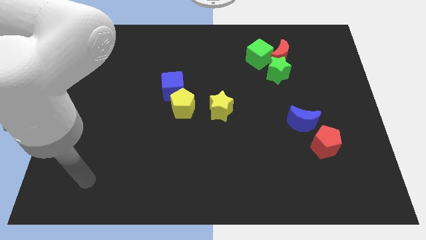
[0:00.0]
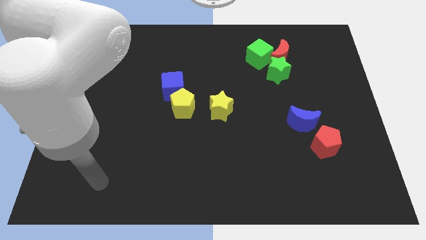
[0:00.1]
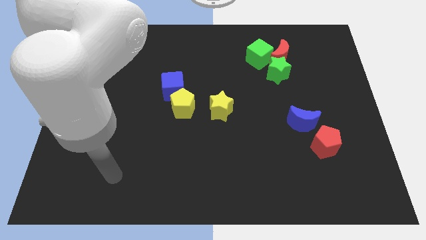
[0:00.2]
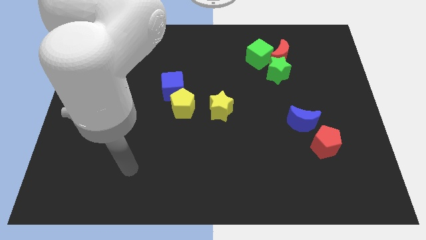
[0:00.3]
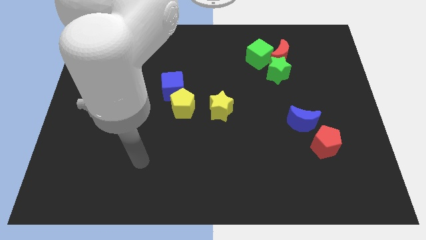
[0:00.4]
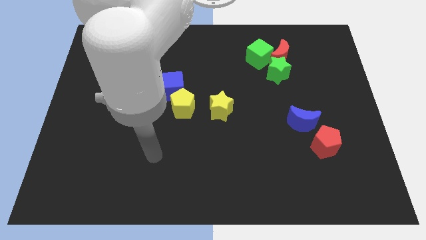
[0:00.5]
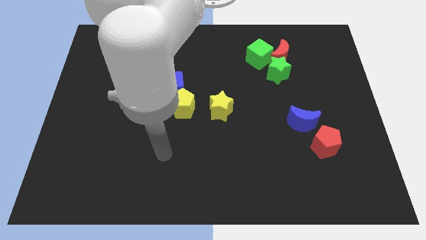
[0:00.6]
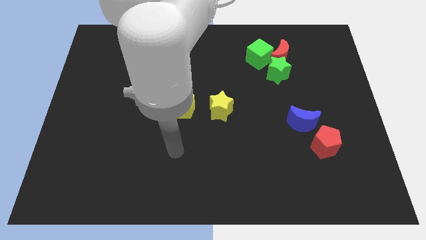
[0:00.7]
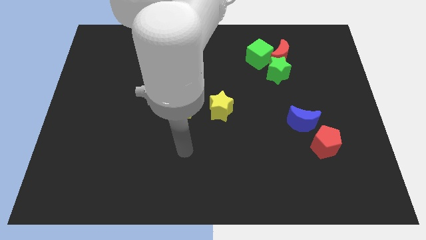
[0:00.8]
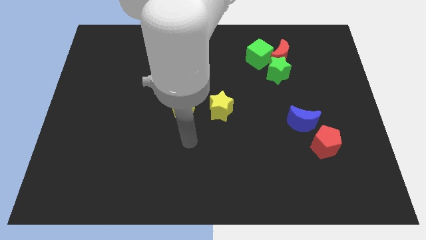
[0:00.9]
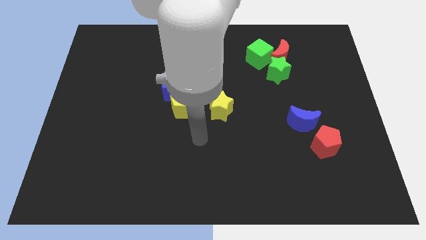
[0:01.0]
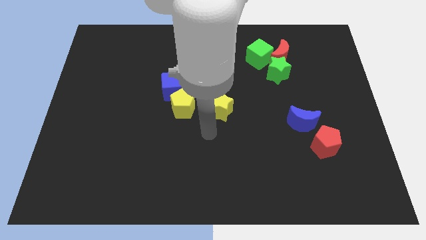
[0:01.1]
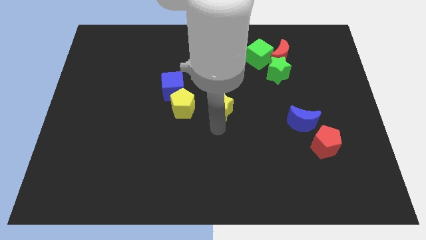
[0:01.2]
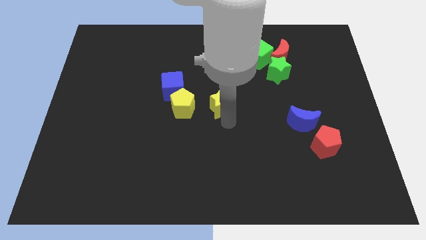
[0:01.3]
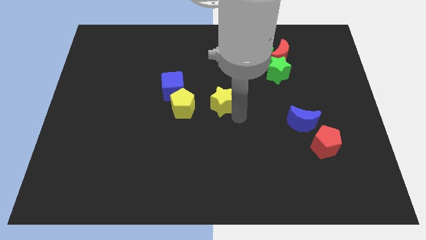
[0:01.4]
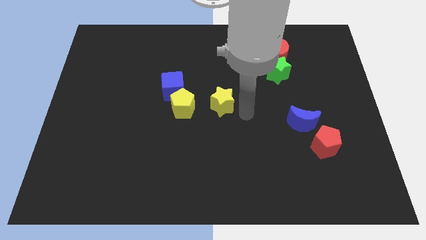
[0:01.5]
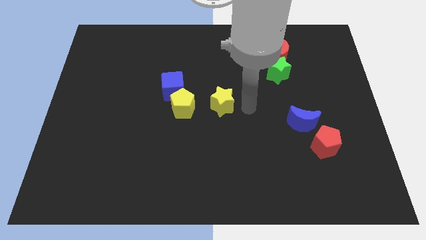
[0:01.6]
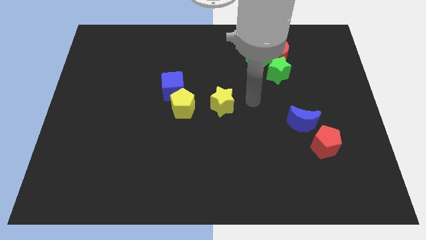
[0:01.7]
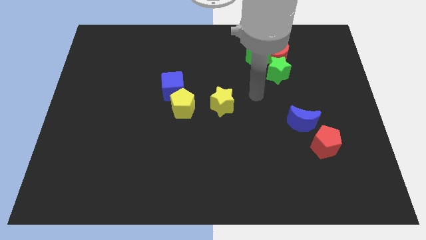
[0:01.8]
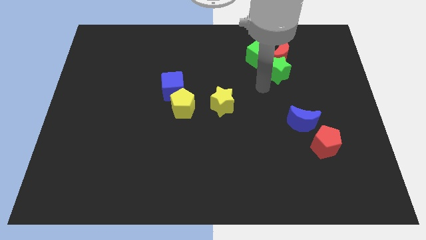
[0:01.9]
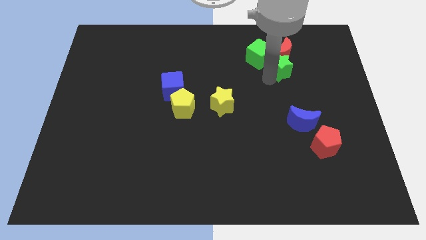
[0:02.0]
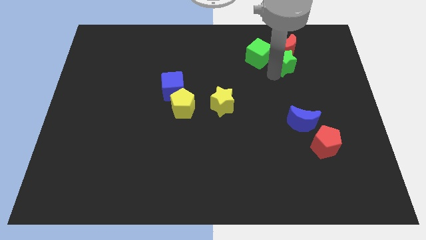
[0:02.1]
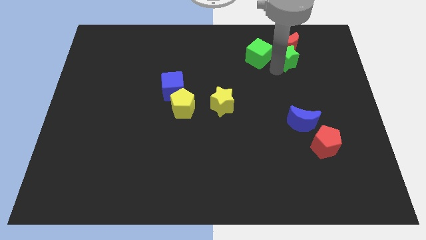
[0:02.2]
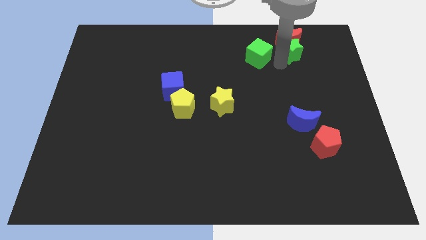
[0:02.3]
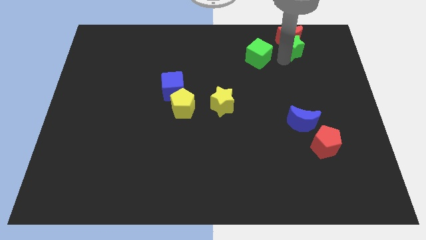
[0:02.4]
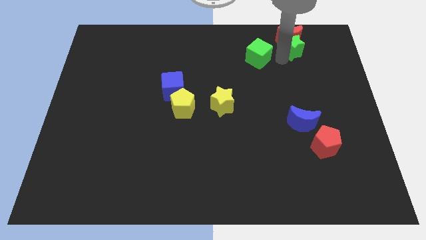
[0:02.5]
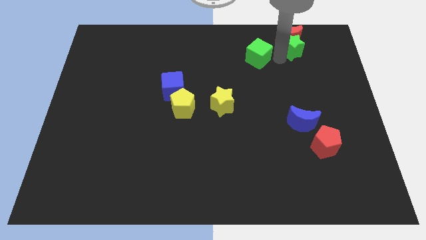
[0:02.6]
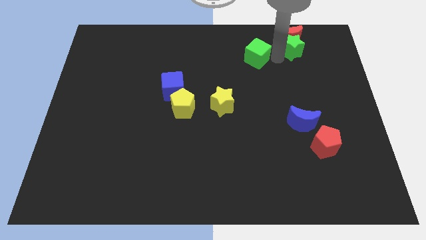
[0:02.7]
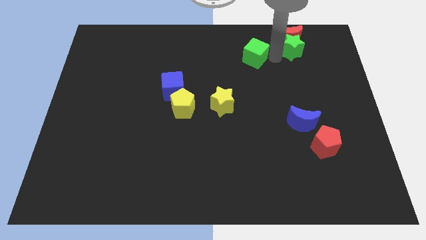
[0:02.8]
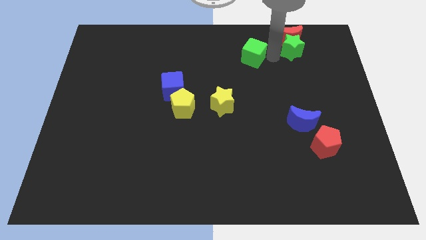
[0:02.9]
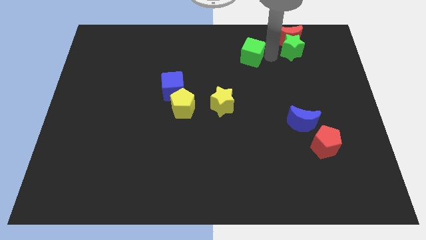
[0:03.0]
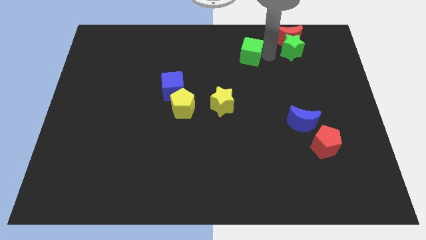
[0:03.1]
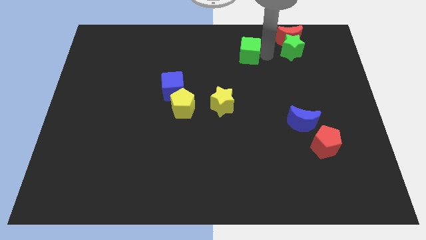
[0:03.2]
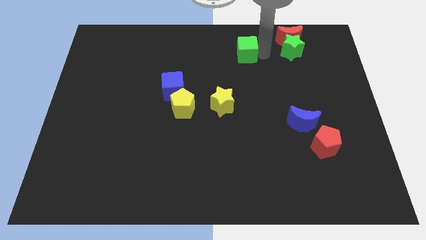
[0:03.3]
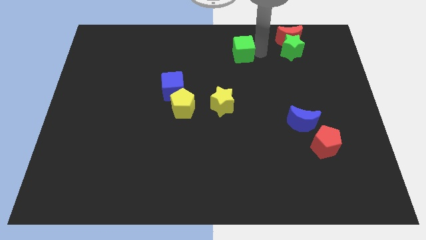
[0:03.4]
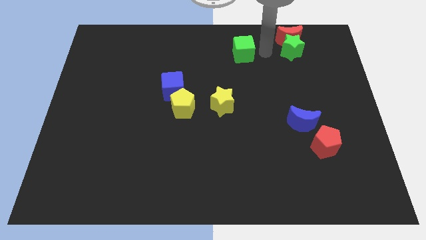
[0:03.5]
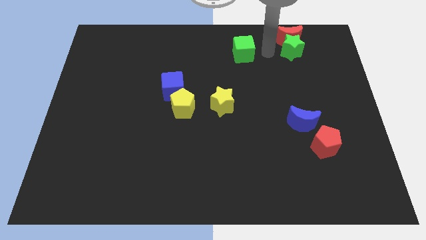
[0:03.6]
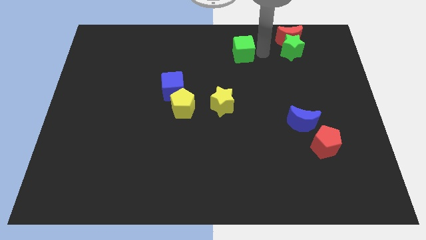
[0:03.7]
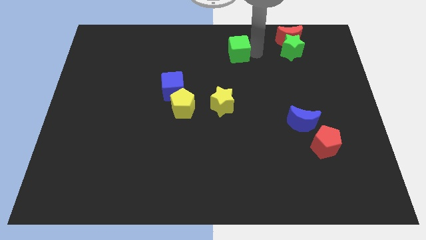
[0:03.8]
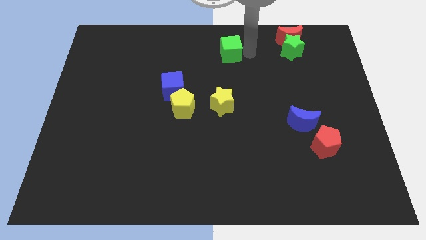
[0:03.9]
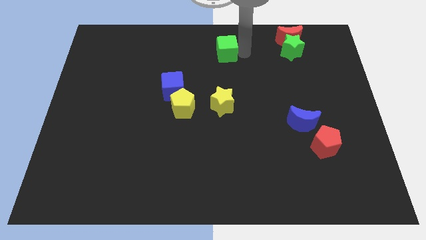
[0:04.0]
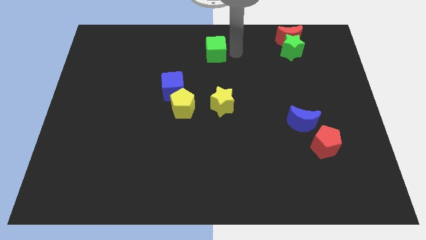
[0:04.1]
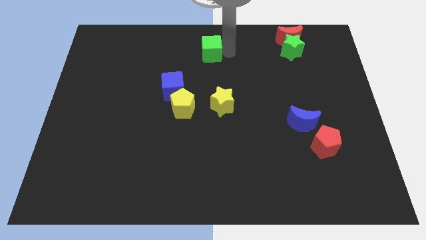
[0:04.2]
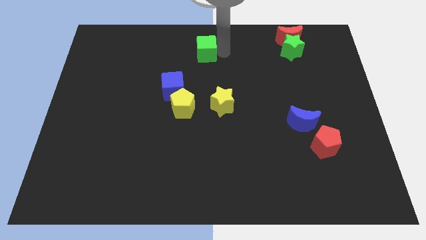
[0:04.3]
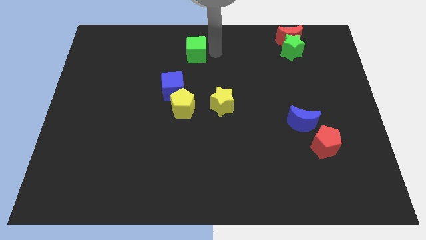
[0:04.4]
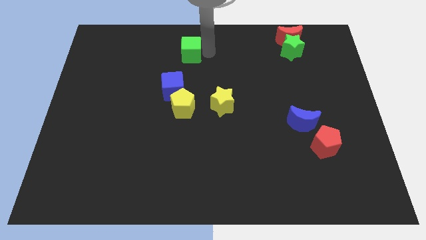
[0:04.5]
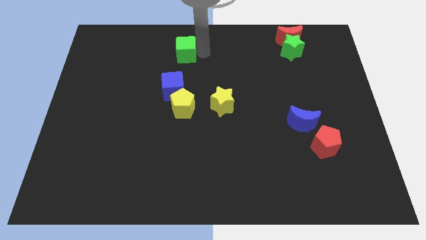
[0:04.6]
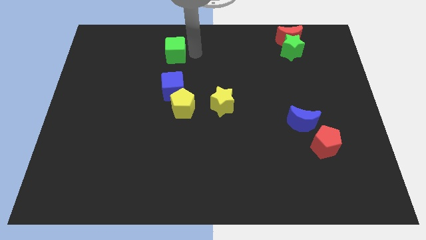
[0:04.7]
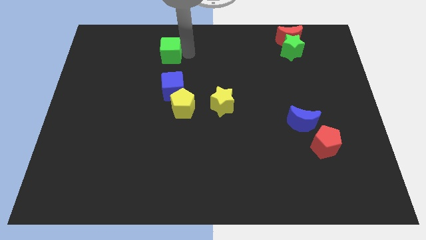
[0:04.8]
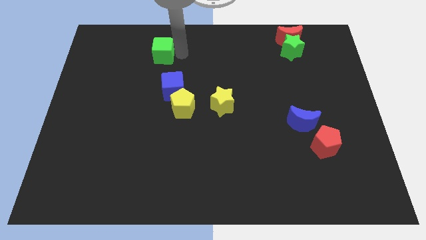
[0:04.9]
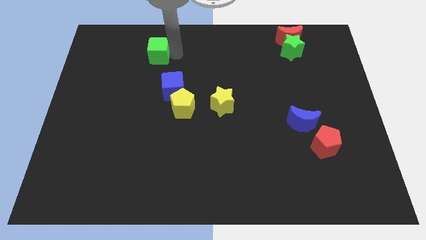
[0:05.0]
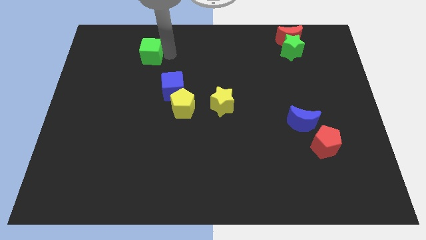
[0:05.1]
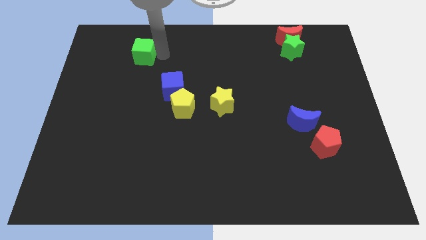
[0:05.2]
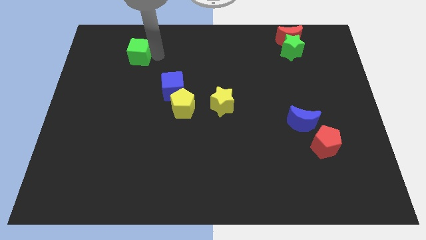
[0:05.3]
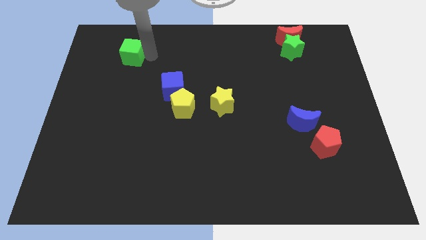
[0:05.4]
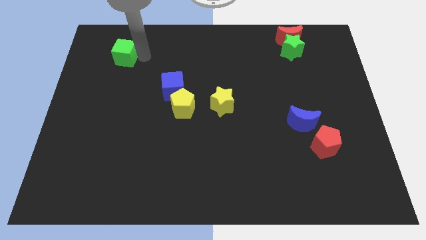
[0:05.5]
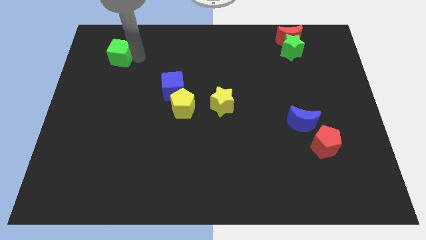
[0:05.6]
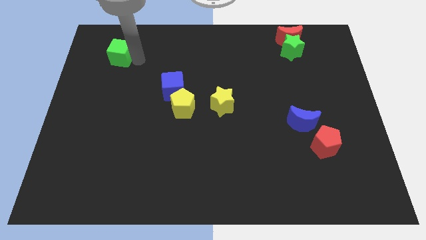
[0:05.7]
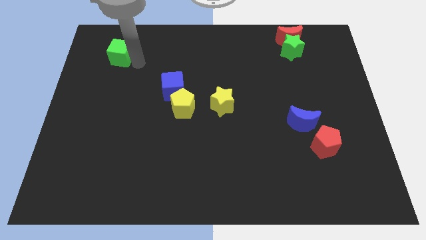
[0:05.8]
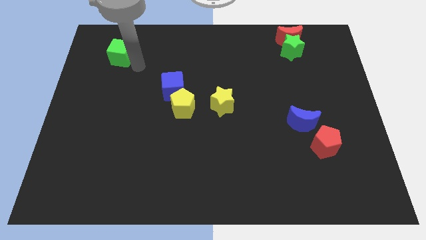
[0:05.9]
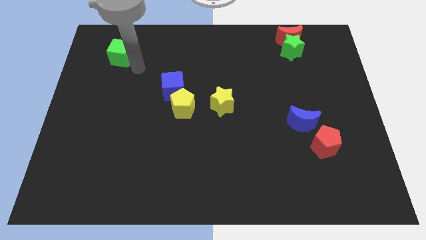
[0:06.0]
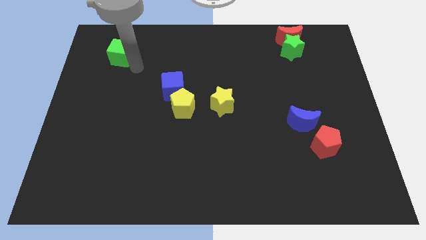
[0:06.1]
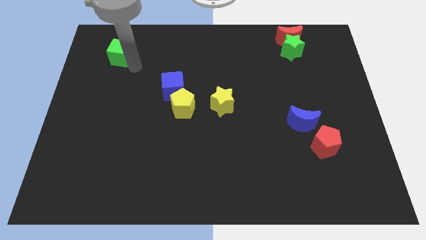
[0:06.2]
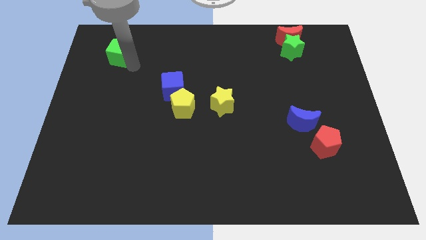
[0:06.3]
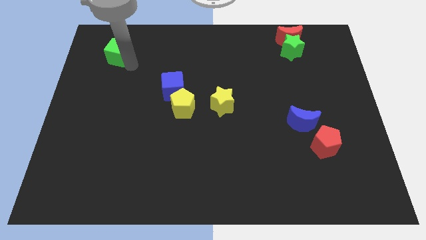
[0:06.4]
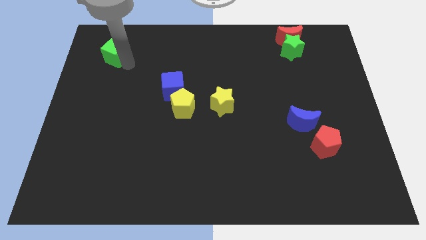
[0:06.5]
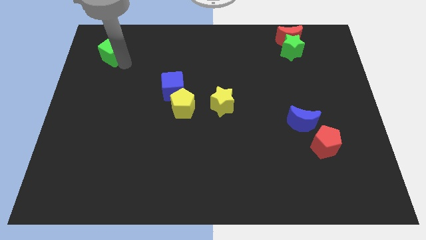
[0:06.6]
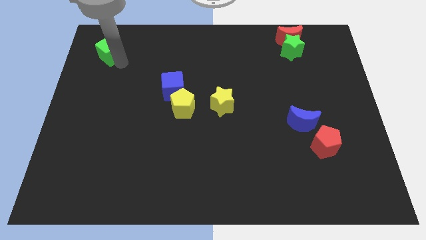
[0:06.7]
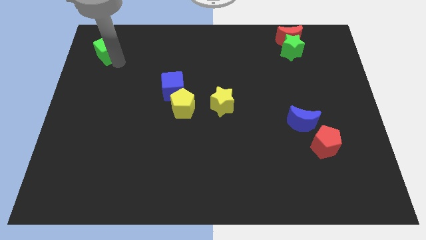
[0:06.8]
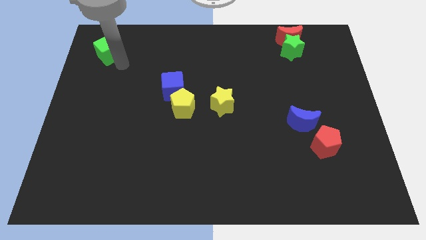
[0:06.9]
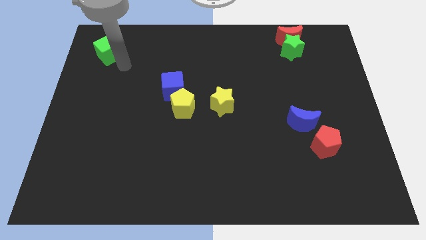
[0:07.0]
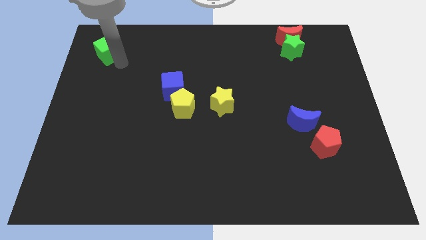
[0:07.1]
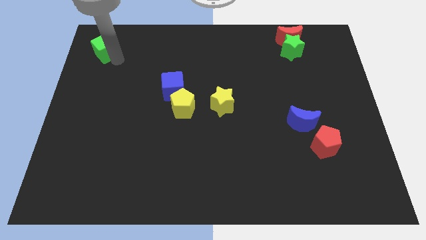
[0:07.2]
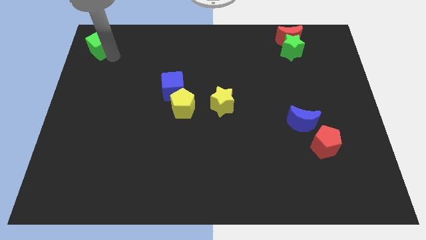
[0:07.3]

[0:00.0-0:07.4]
put the green cube to the top left corner
